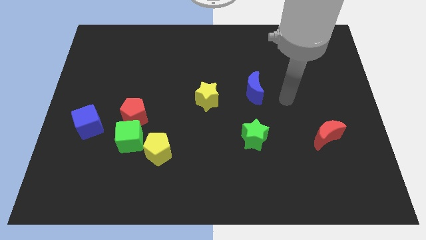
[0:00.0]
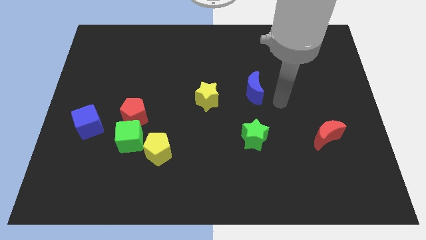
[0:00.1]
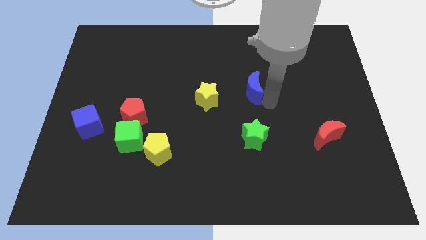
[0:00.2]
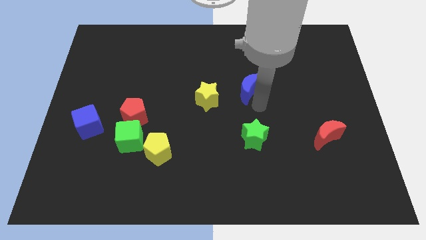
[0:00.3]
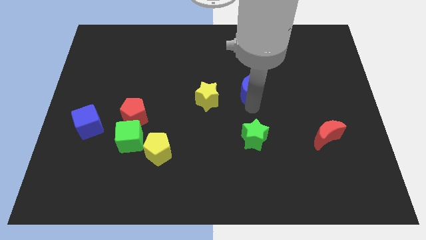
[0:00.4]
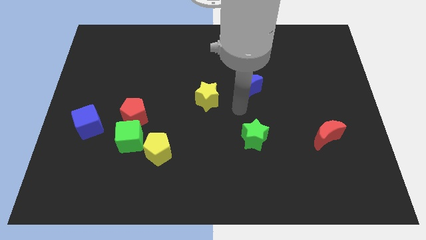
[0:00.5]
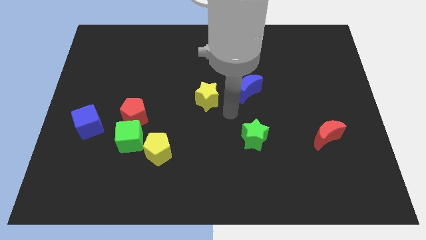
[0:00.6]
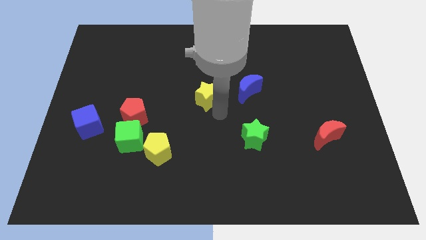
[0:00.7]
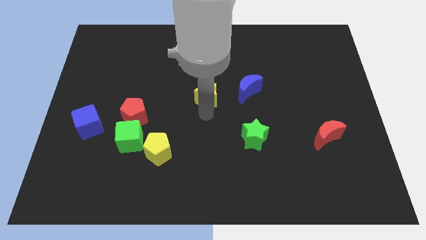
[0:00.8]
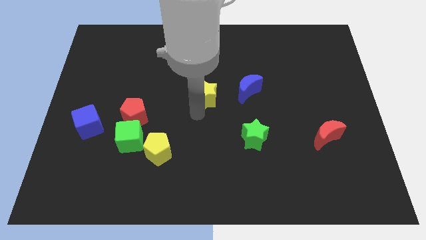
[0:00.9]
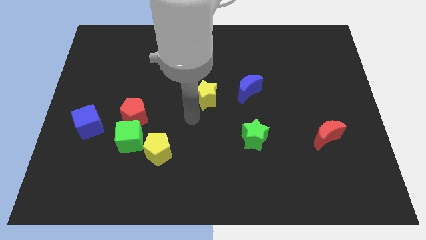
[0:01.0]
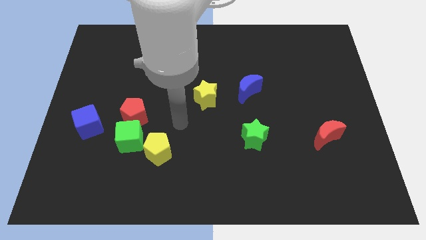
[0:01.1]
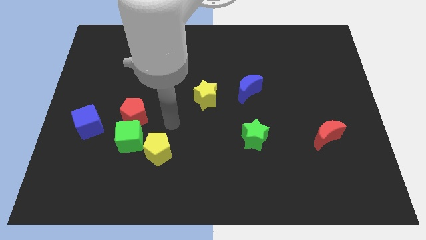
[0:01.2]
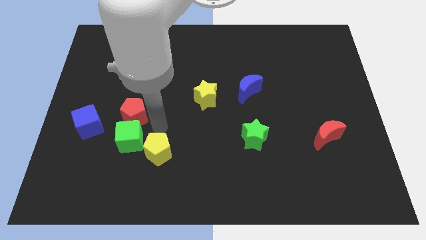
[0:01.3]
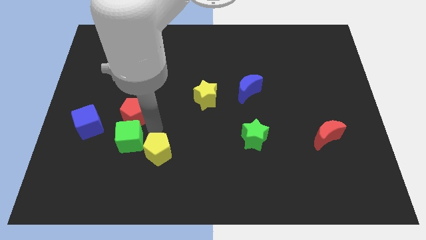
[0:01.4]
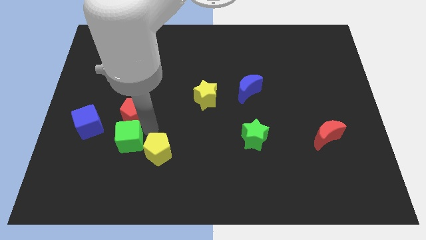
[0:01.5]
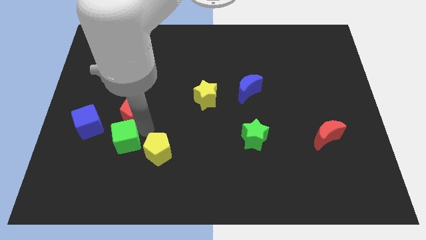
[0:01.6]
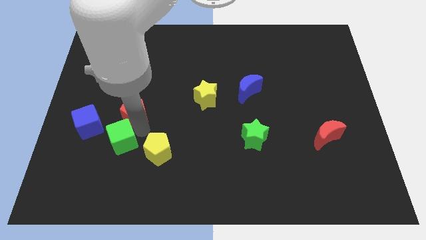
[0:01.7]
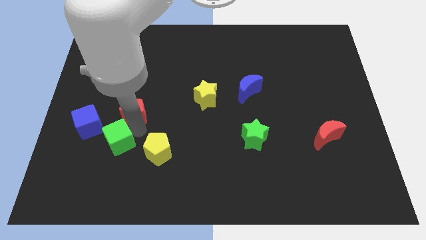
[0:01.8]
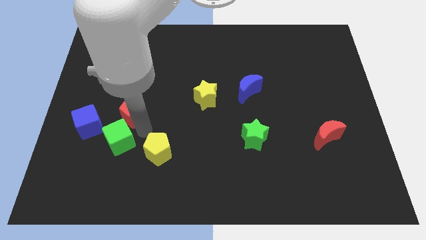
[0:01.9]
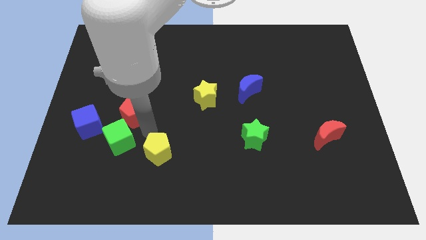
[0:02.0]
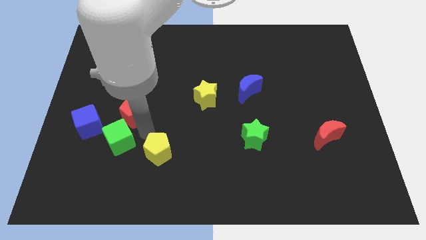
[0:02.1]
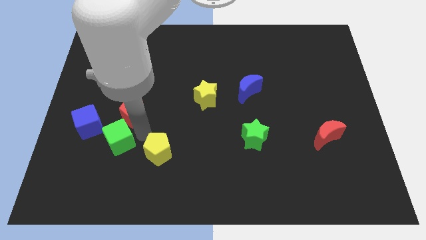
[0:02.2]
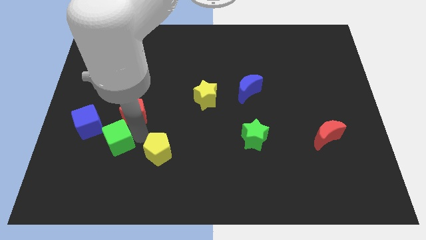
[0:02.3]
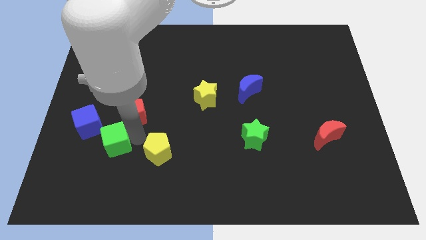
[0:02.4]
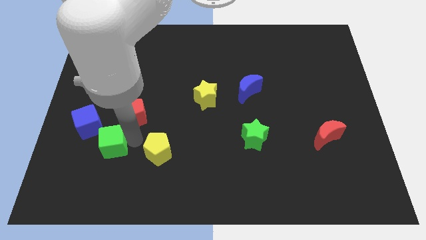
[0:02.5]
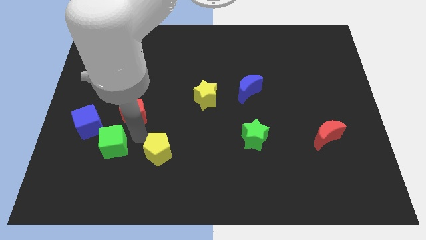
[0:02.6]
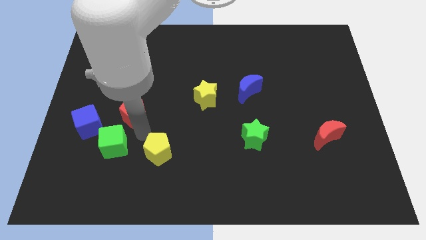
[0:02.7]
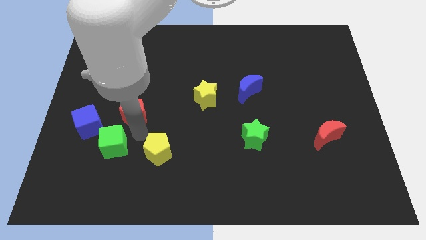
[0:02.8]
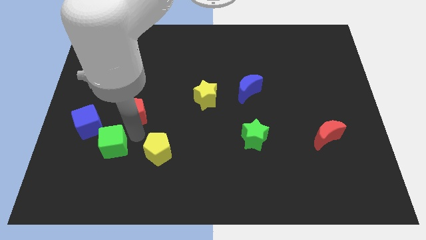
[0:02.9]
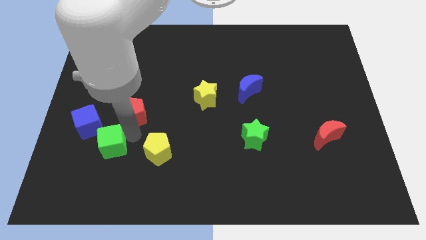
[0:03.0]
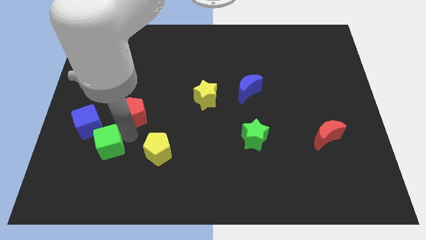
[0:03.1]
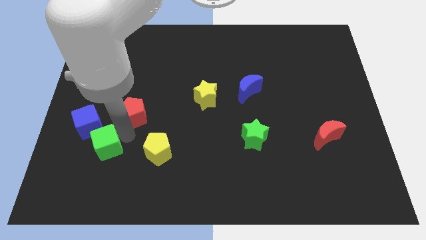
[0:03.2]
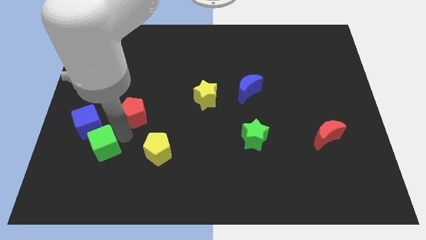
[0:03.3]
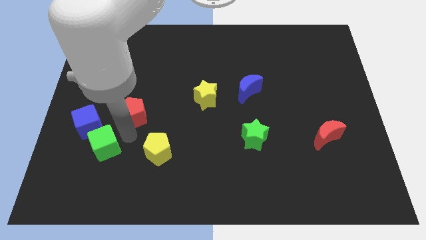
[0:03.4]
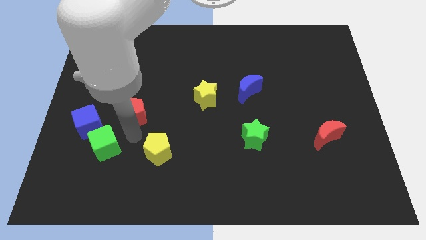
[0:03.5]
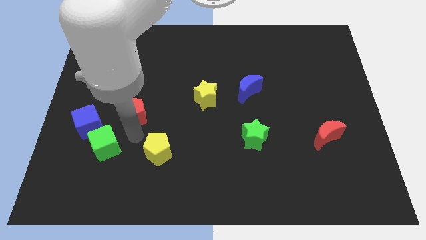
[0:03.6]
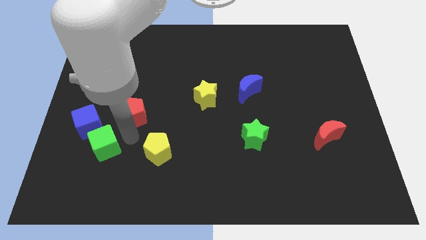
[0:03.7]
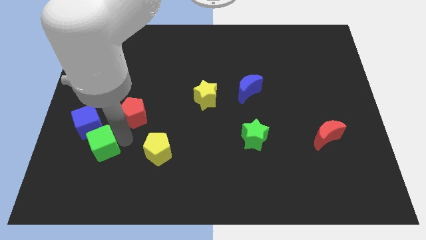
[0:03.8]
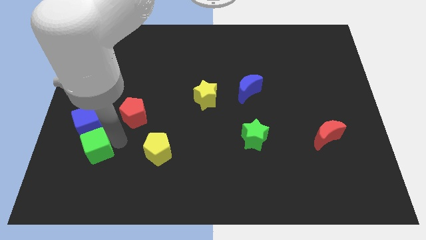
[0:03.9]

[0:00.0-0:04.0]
move the green cube away from the red pentagon and yellow pentagon

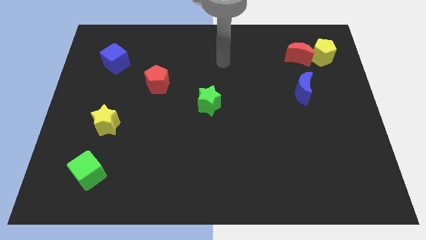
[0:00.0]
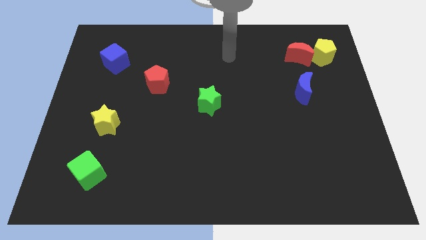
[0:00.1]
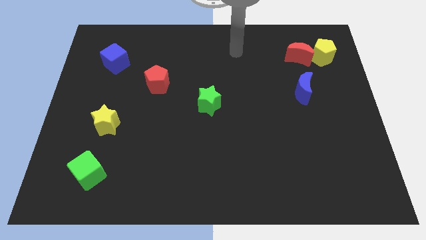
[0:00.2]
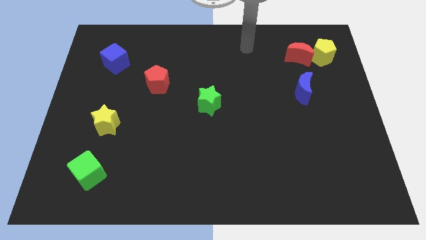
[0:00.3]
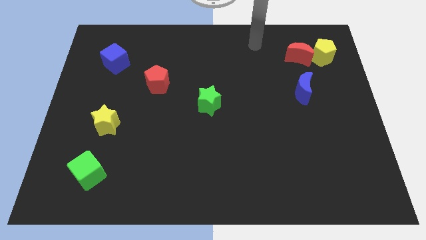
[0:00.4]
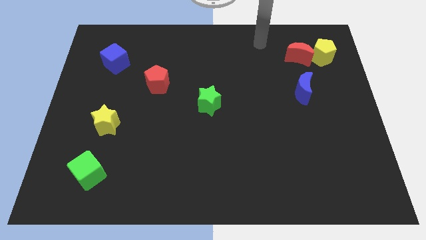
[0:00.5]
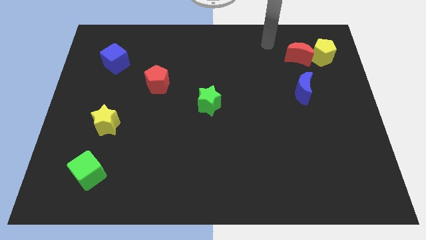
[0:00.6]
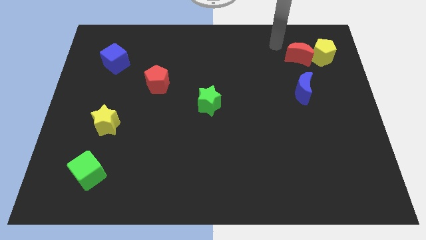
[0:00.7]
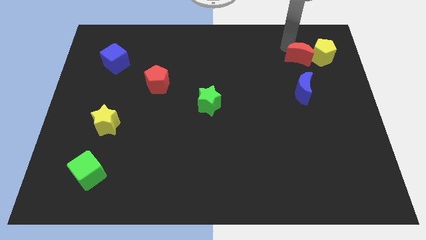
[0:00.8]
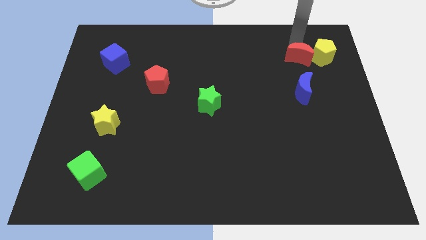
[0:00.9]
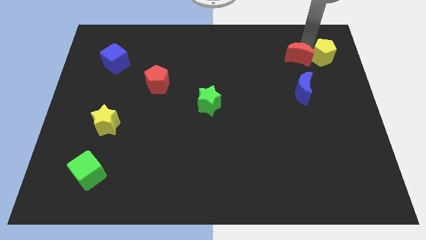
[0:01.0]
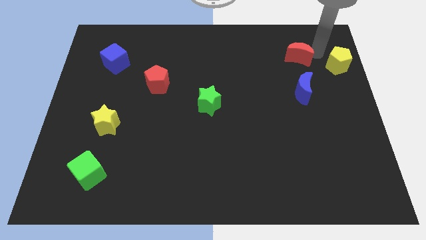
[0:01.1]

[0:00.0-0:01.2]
separate the red moon from the yellow pentagon

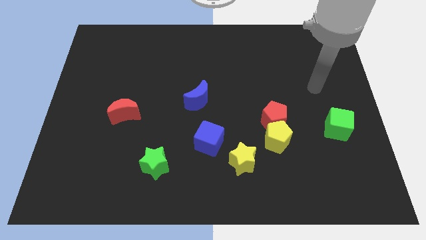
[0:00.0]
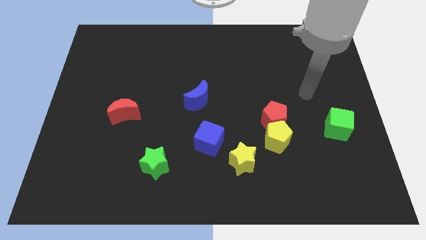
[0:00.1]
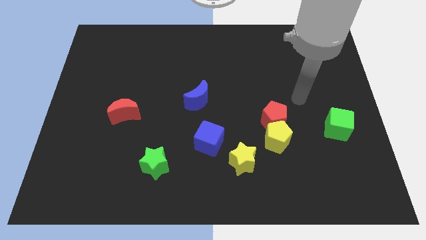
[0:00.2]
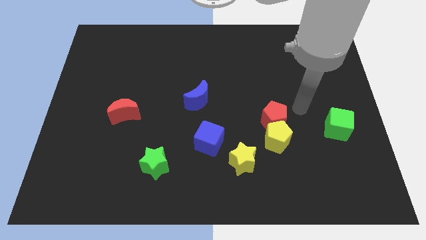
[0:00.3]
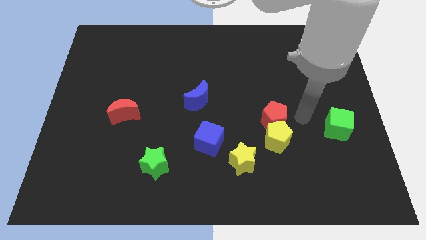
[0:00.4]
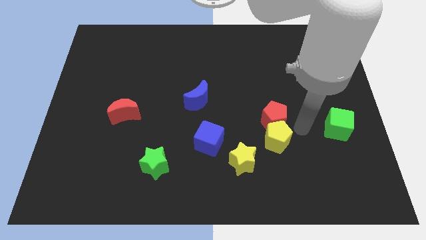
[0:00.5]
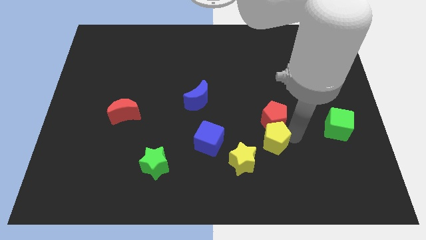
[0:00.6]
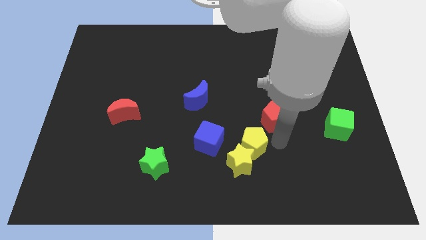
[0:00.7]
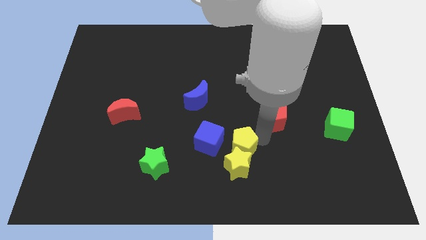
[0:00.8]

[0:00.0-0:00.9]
separate the red pentagon from the yellow pentagon

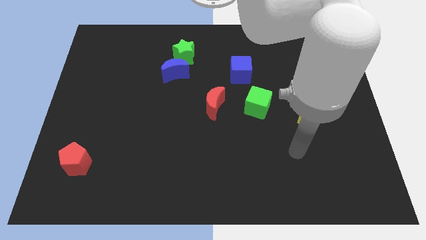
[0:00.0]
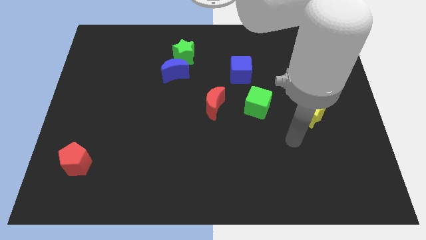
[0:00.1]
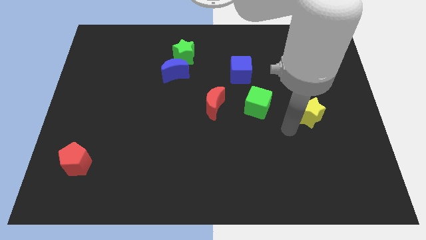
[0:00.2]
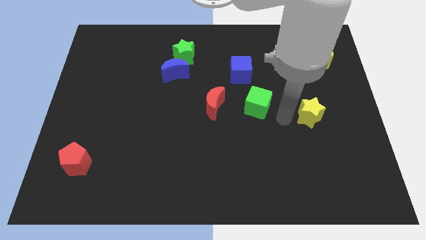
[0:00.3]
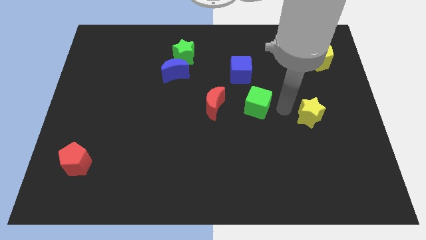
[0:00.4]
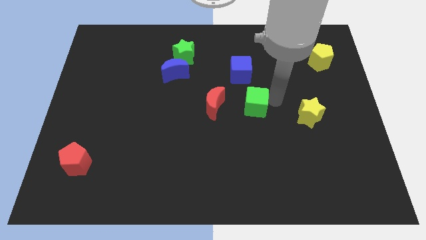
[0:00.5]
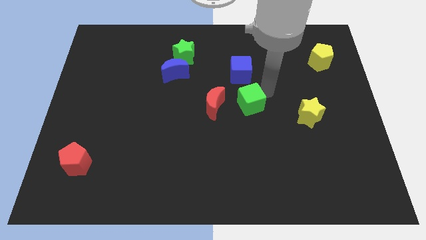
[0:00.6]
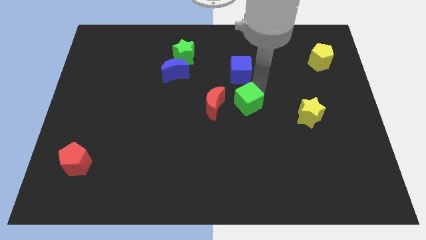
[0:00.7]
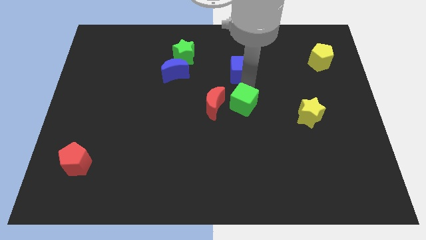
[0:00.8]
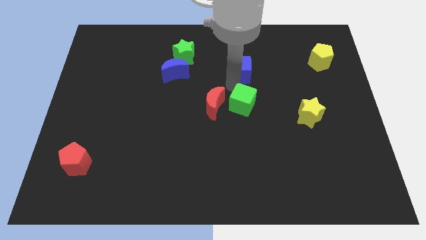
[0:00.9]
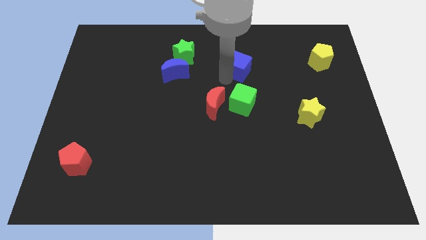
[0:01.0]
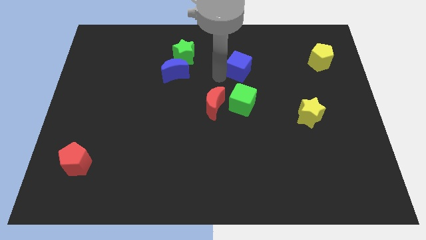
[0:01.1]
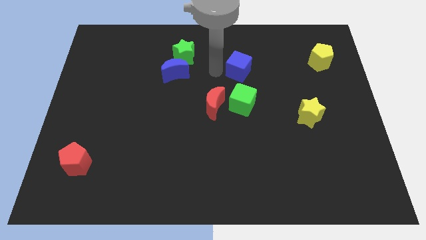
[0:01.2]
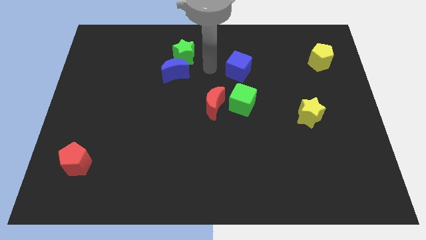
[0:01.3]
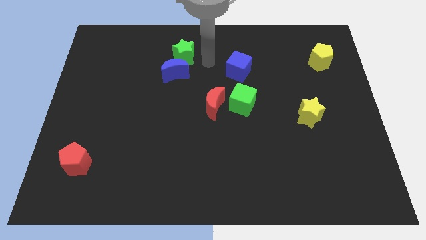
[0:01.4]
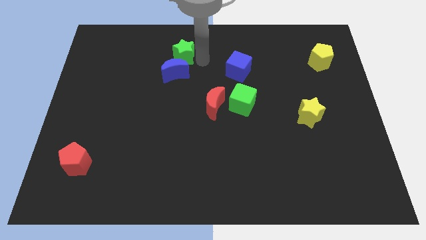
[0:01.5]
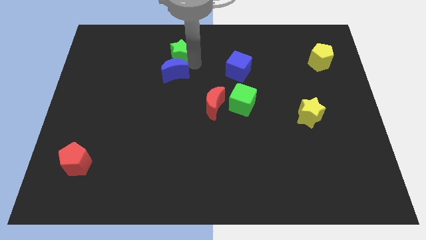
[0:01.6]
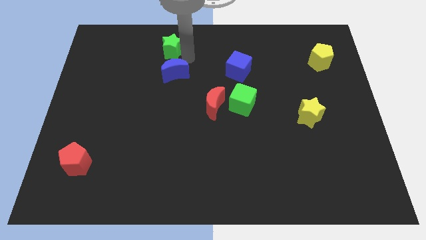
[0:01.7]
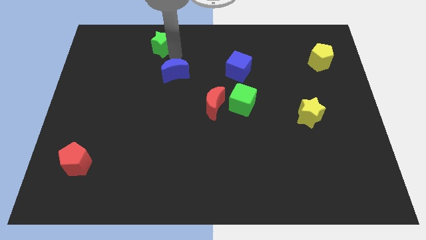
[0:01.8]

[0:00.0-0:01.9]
move the blue moon away from the green star

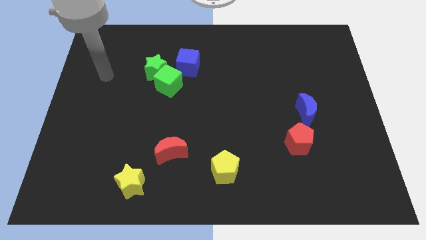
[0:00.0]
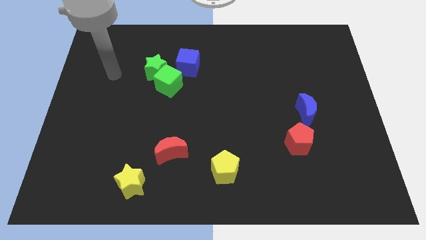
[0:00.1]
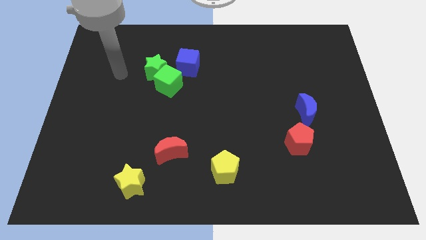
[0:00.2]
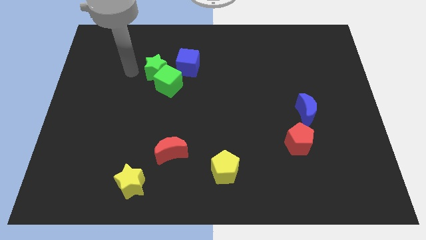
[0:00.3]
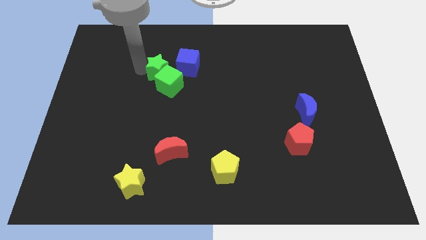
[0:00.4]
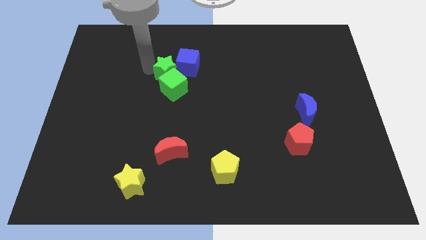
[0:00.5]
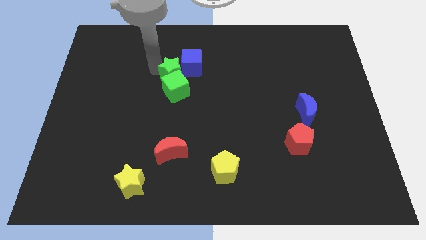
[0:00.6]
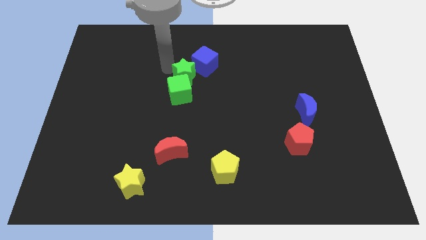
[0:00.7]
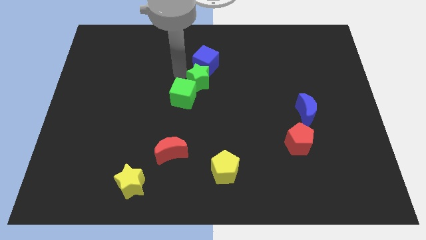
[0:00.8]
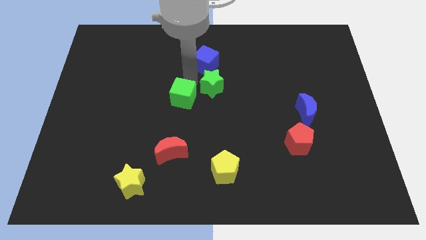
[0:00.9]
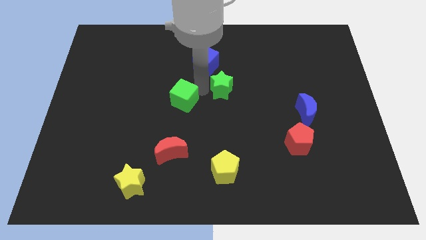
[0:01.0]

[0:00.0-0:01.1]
separate the green cube from the green star and blue cube

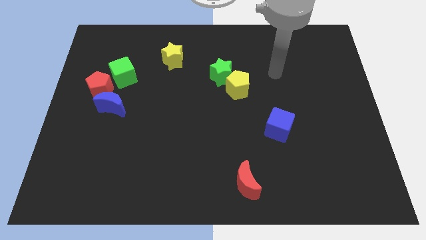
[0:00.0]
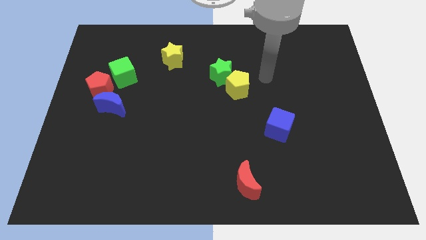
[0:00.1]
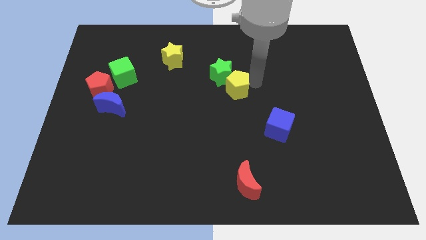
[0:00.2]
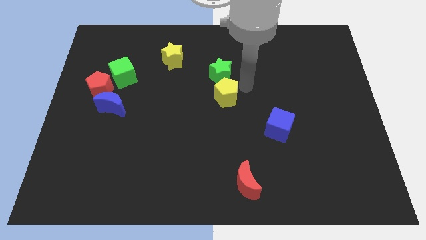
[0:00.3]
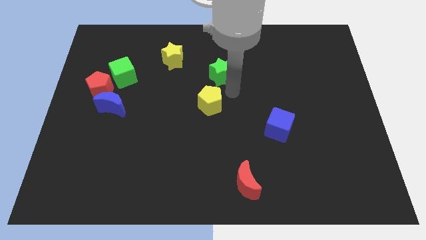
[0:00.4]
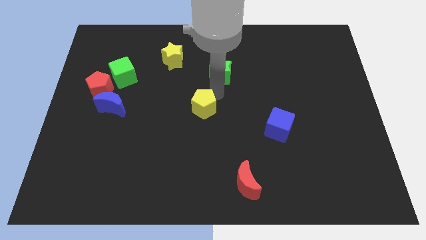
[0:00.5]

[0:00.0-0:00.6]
move the green star away from the yellow pentagon
